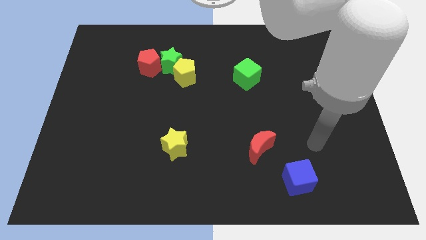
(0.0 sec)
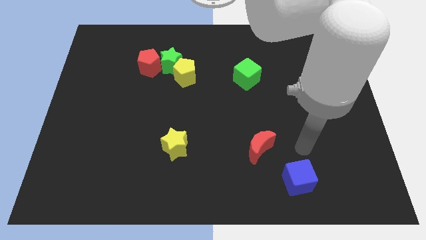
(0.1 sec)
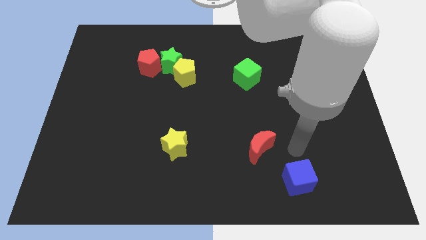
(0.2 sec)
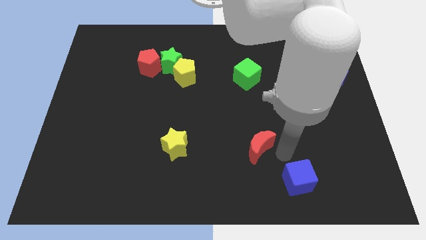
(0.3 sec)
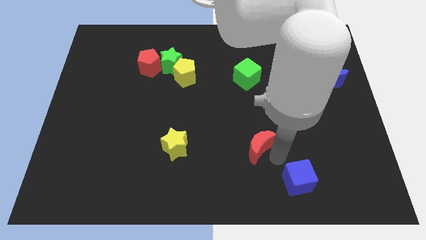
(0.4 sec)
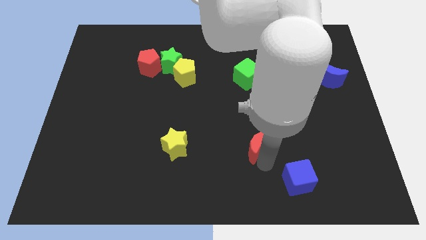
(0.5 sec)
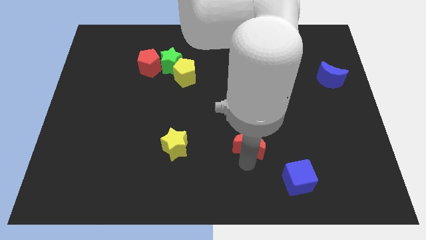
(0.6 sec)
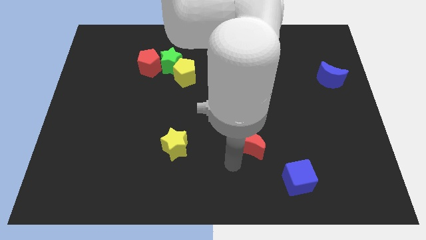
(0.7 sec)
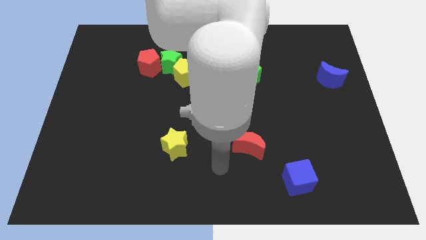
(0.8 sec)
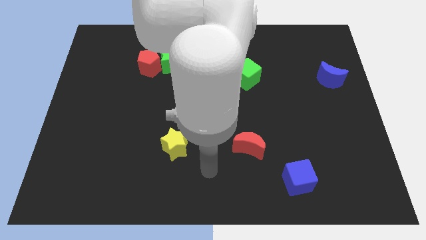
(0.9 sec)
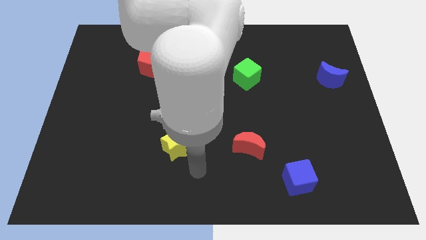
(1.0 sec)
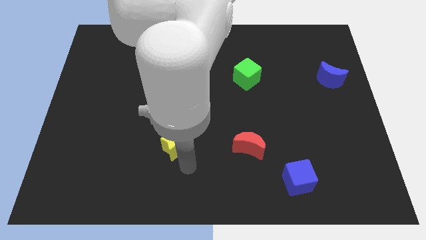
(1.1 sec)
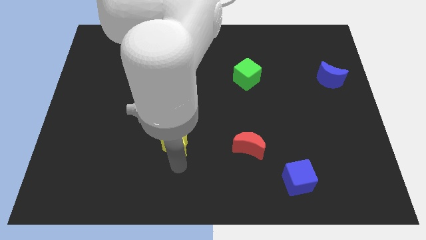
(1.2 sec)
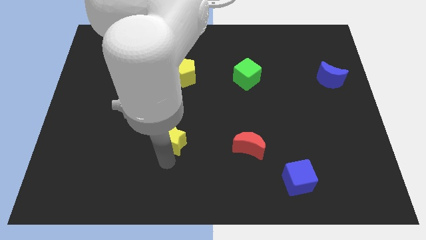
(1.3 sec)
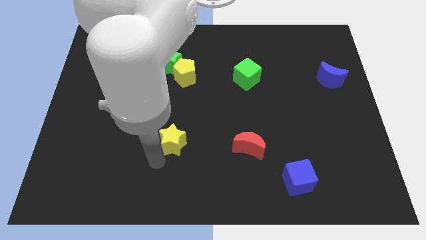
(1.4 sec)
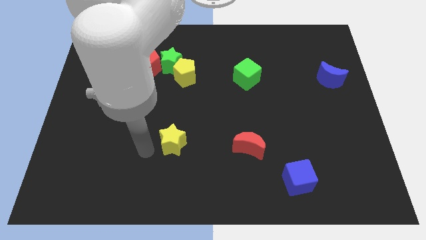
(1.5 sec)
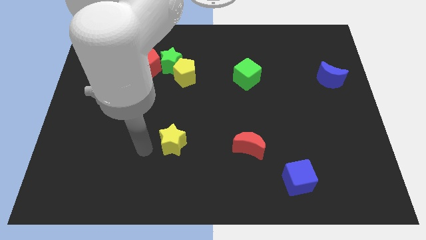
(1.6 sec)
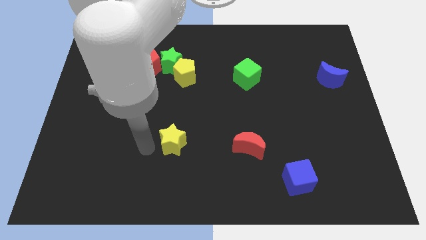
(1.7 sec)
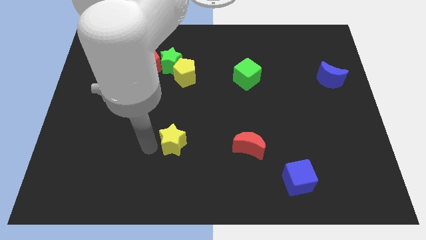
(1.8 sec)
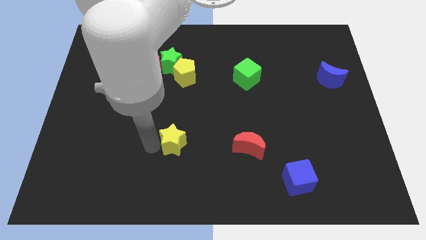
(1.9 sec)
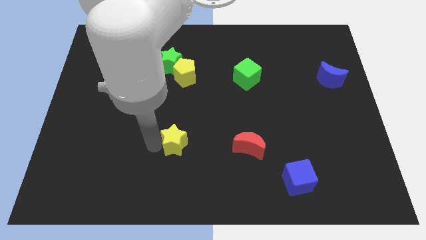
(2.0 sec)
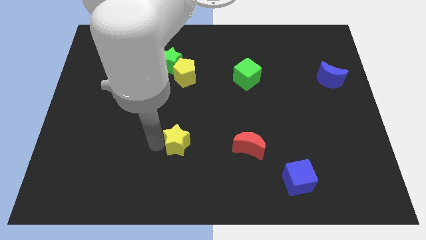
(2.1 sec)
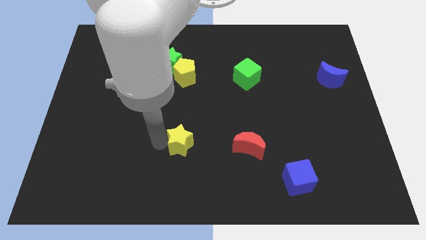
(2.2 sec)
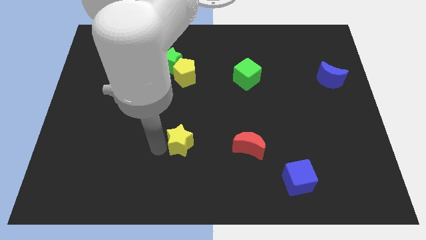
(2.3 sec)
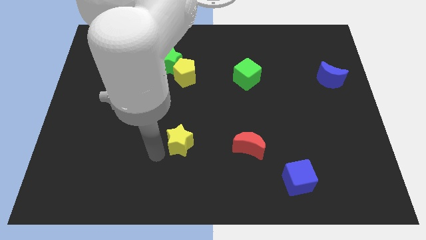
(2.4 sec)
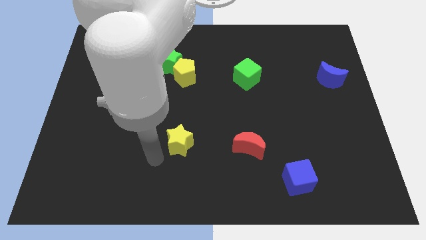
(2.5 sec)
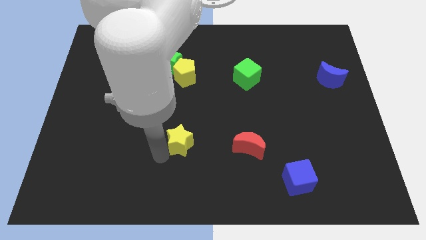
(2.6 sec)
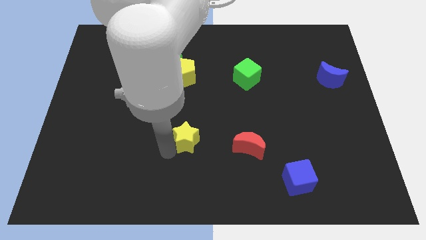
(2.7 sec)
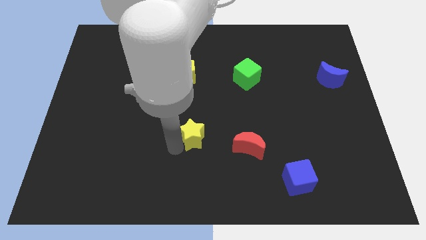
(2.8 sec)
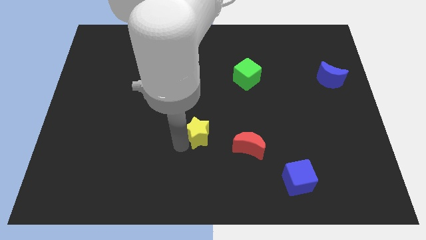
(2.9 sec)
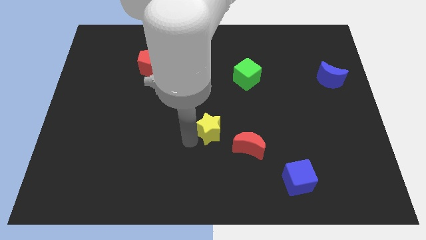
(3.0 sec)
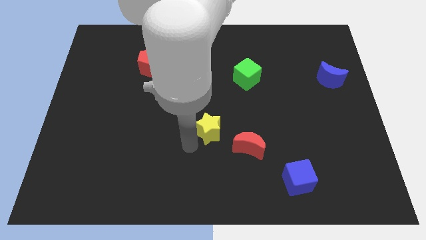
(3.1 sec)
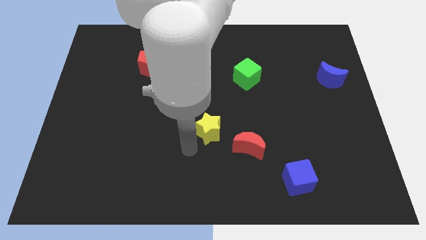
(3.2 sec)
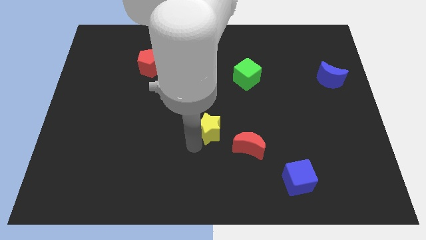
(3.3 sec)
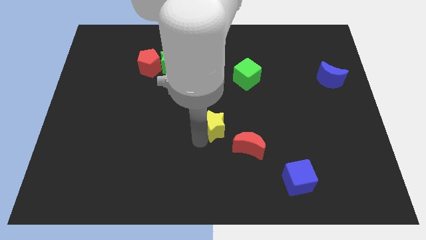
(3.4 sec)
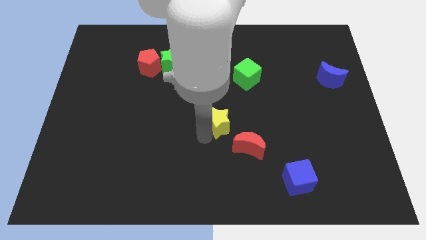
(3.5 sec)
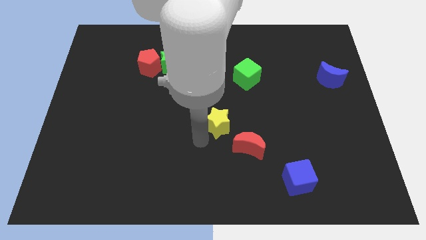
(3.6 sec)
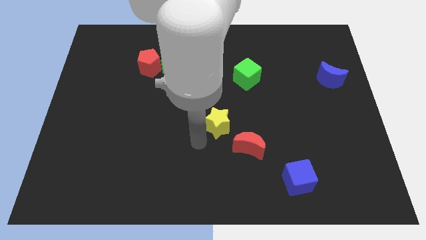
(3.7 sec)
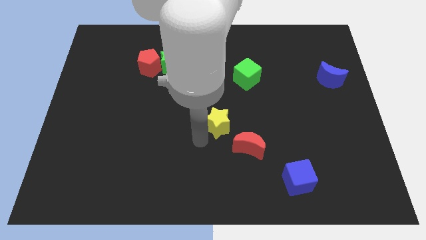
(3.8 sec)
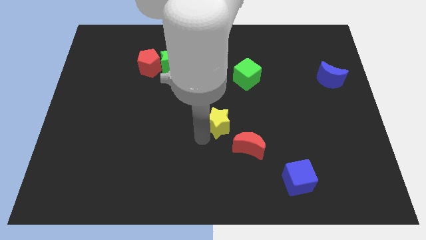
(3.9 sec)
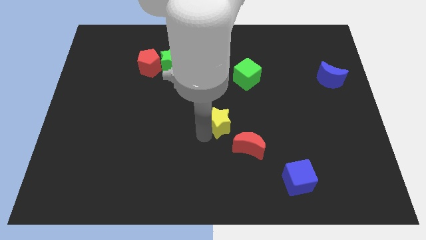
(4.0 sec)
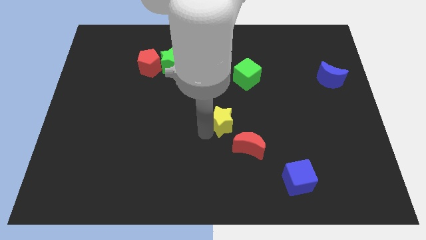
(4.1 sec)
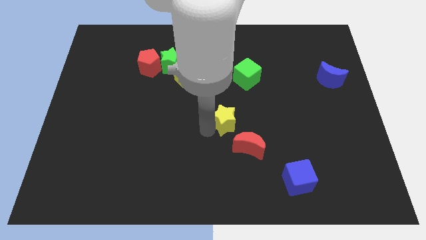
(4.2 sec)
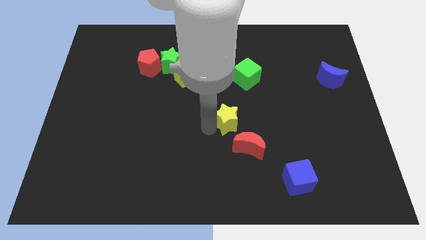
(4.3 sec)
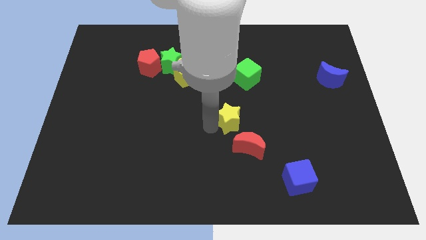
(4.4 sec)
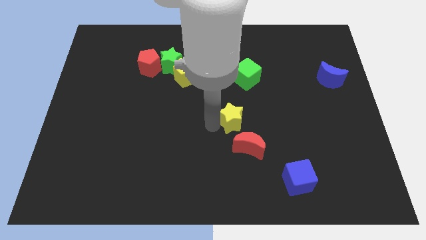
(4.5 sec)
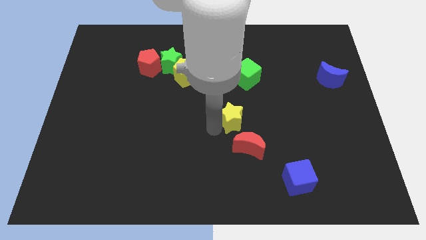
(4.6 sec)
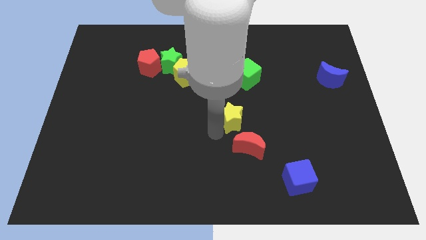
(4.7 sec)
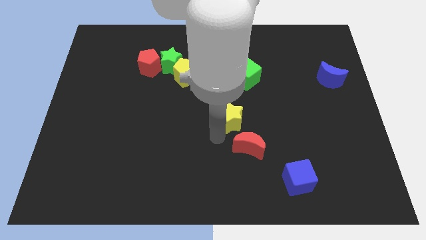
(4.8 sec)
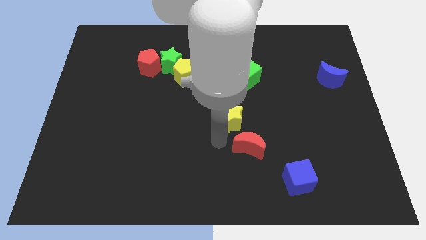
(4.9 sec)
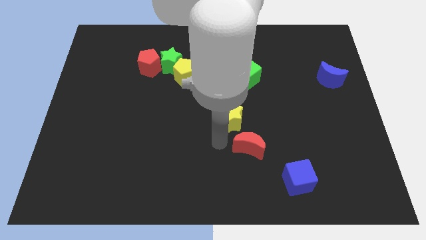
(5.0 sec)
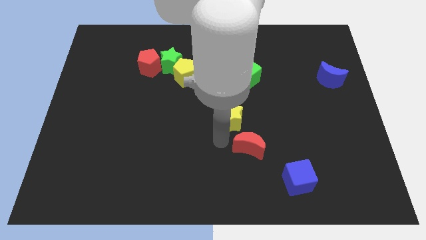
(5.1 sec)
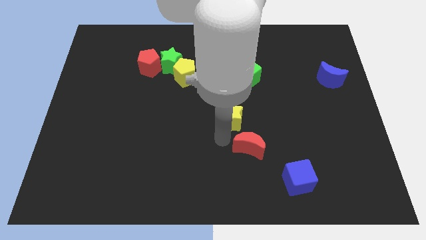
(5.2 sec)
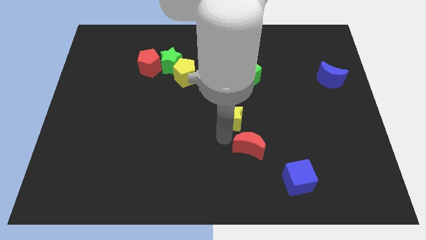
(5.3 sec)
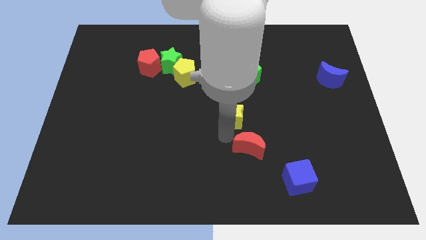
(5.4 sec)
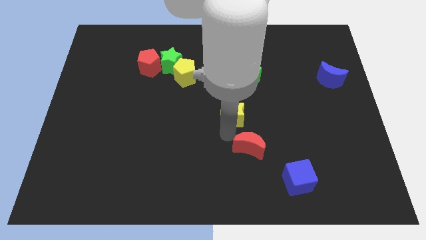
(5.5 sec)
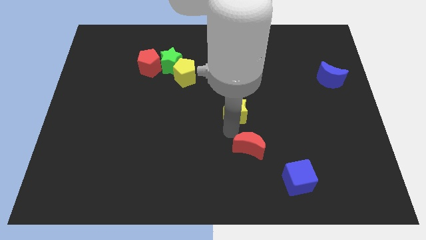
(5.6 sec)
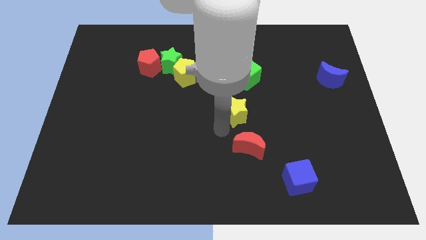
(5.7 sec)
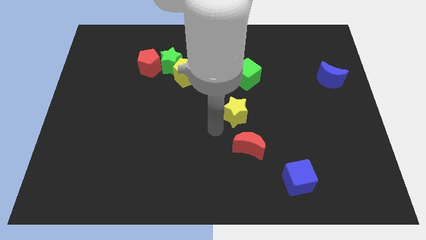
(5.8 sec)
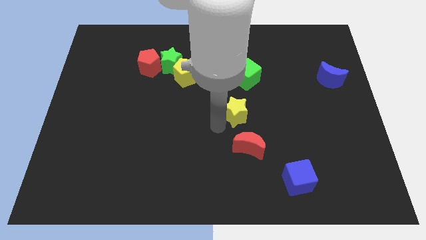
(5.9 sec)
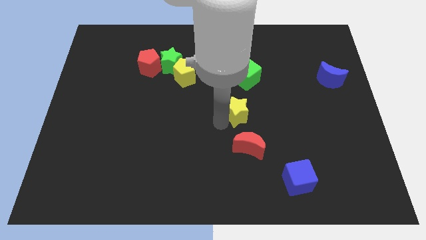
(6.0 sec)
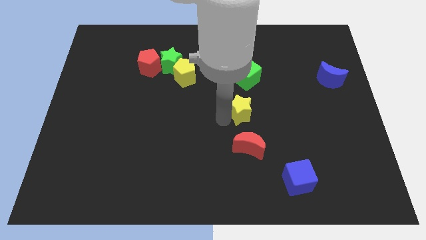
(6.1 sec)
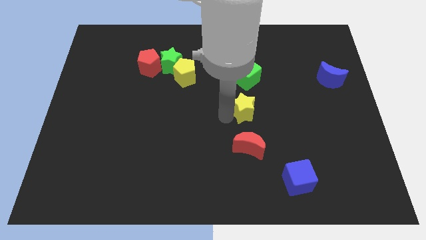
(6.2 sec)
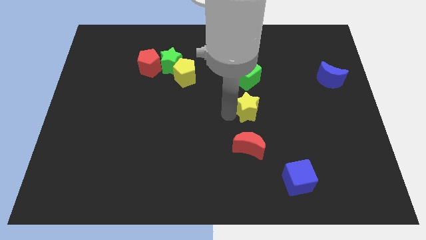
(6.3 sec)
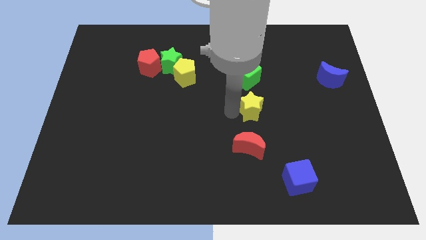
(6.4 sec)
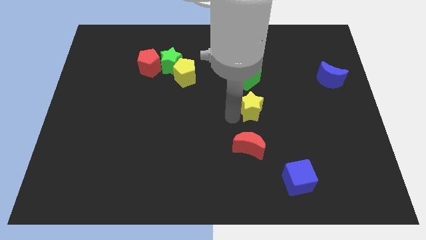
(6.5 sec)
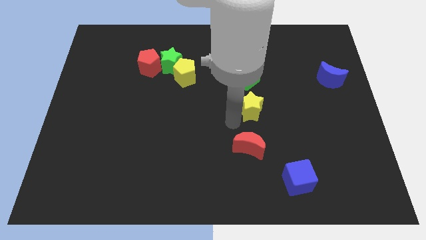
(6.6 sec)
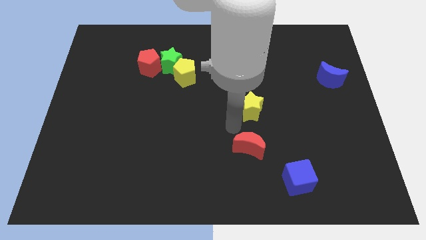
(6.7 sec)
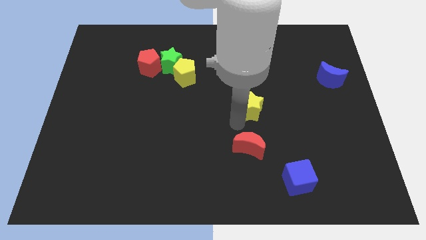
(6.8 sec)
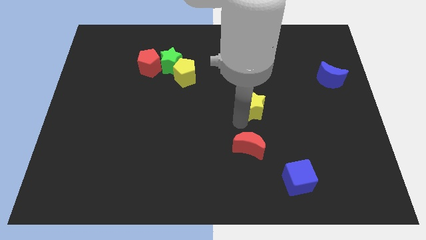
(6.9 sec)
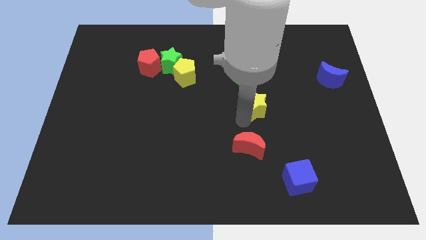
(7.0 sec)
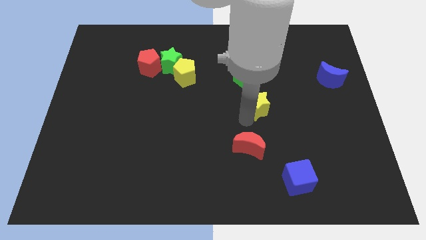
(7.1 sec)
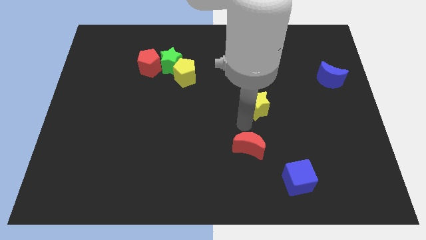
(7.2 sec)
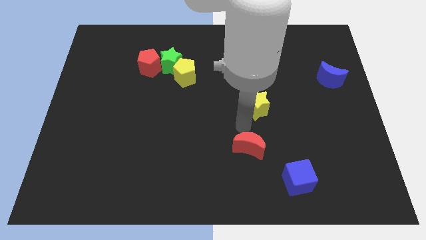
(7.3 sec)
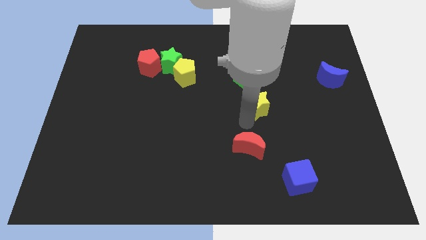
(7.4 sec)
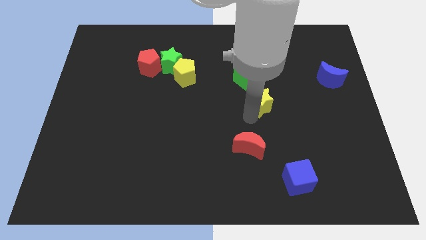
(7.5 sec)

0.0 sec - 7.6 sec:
move the yellow star diagonally down and to the right of the green cube
